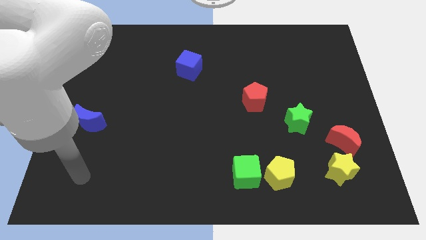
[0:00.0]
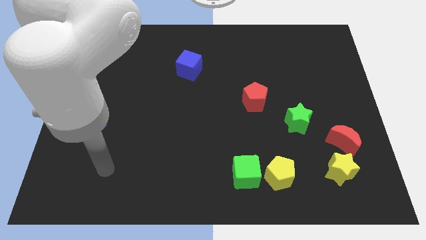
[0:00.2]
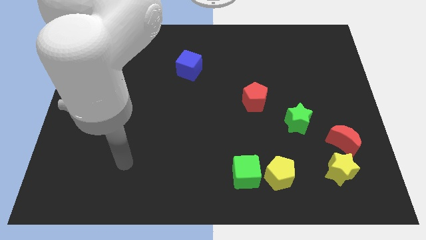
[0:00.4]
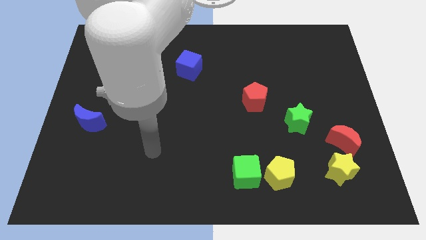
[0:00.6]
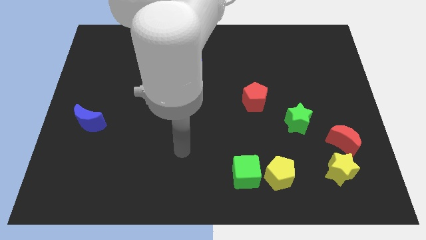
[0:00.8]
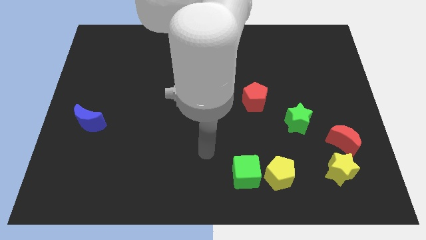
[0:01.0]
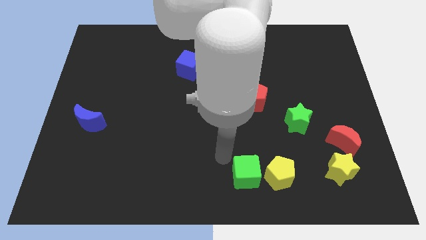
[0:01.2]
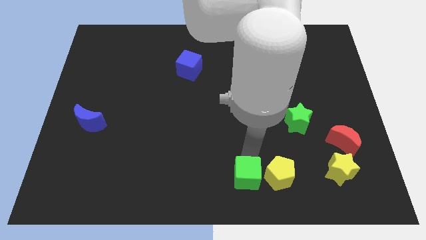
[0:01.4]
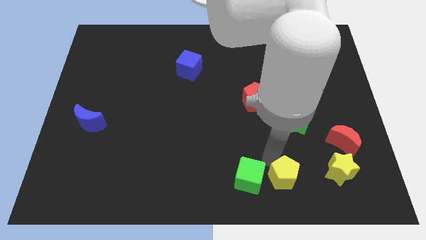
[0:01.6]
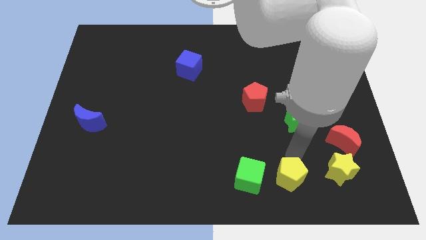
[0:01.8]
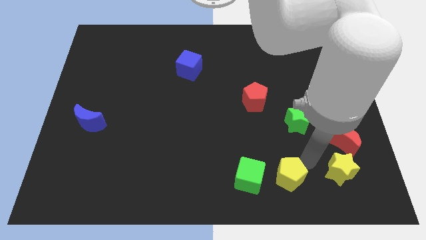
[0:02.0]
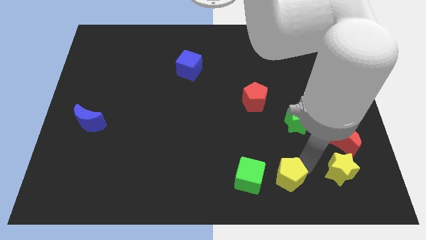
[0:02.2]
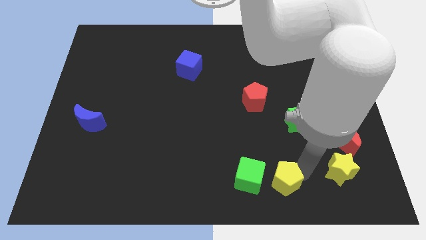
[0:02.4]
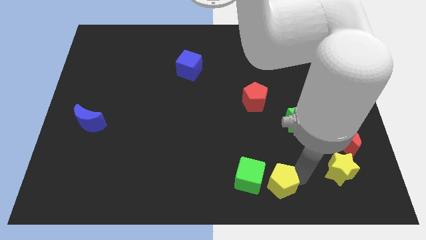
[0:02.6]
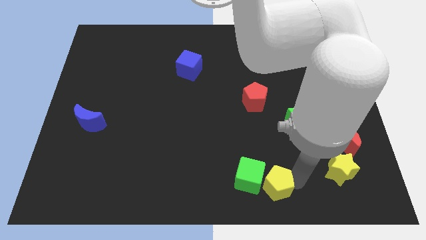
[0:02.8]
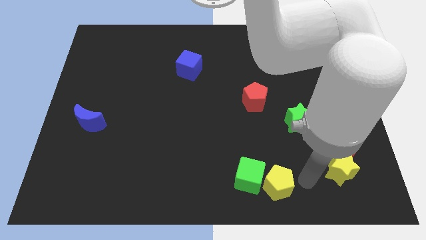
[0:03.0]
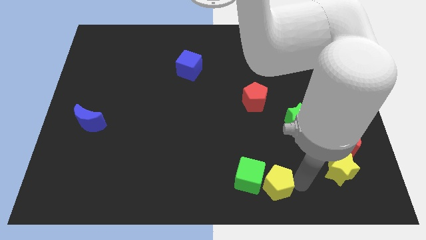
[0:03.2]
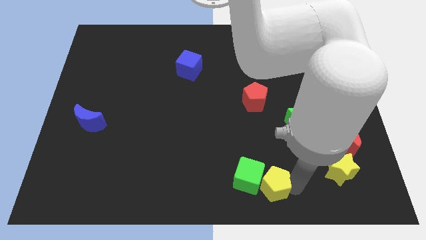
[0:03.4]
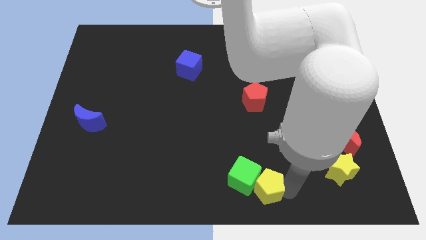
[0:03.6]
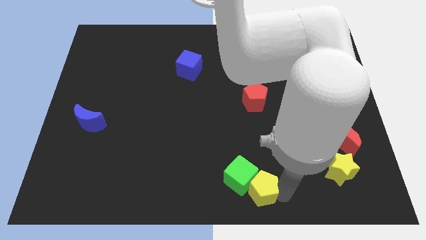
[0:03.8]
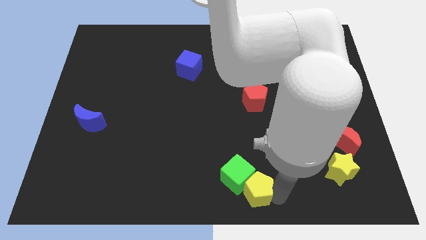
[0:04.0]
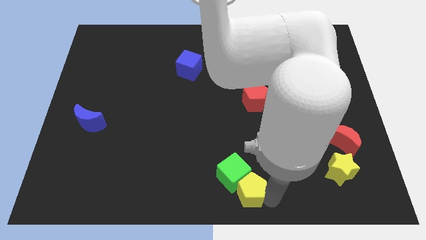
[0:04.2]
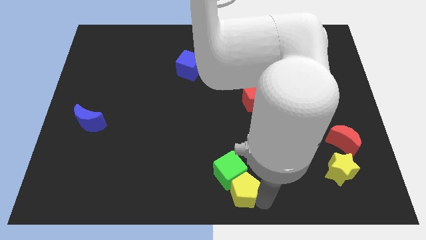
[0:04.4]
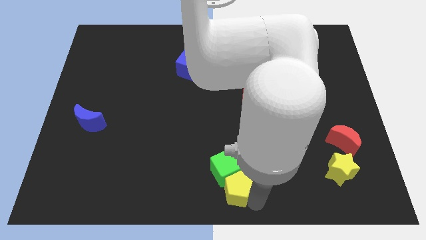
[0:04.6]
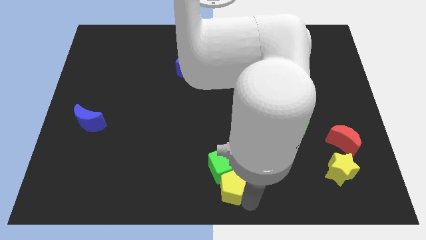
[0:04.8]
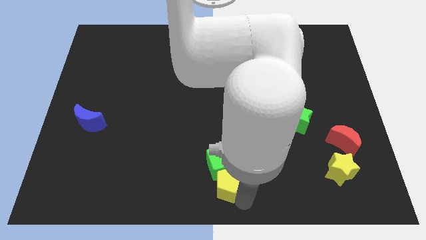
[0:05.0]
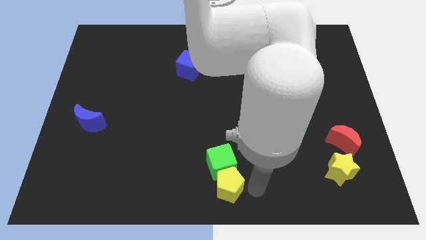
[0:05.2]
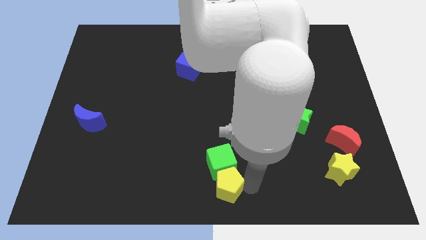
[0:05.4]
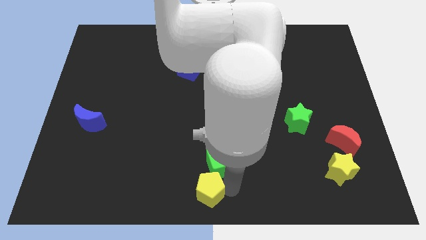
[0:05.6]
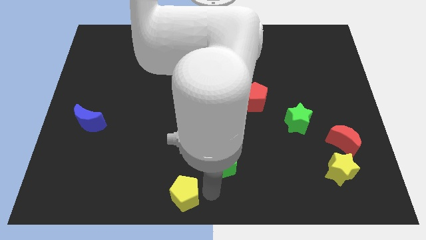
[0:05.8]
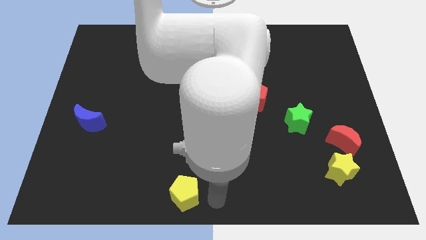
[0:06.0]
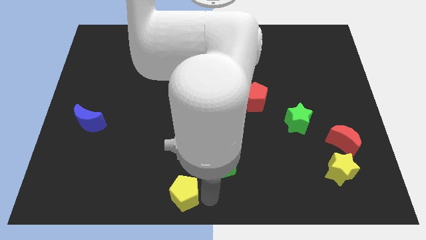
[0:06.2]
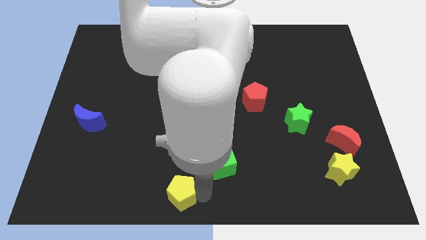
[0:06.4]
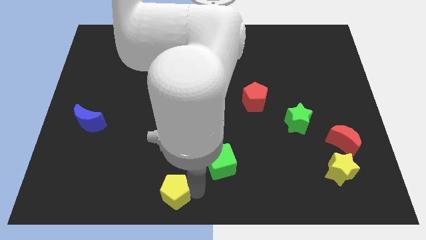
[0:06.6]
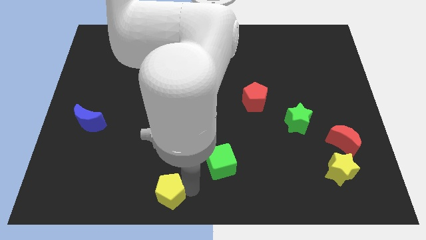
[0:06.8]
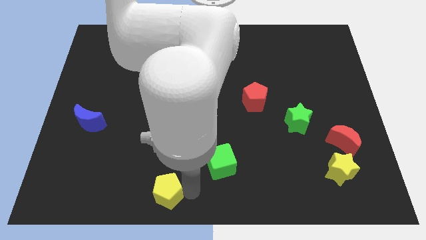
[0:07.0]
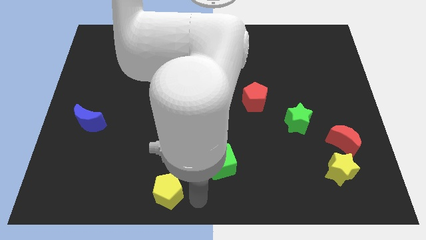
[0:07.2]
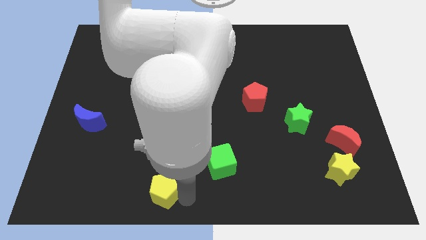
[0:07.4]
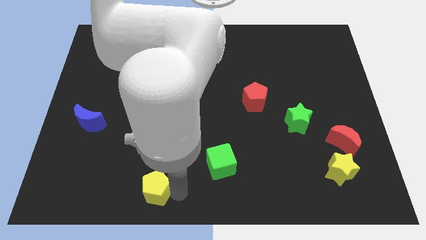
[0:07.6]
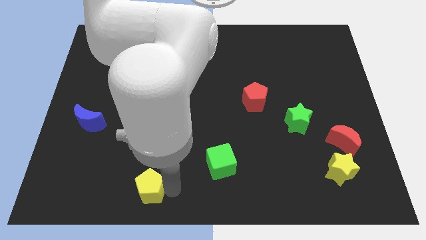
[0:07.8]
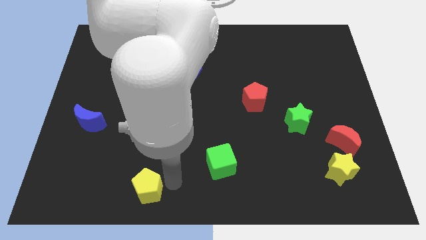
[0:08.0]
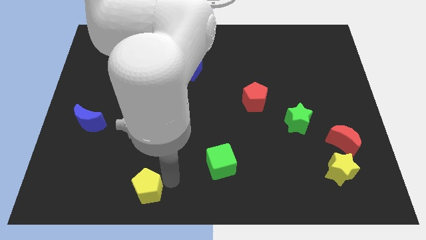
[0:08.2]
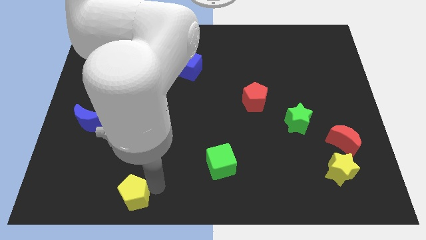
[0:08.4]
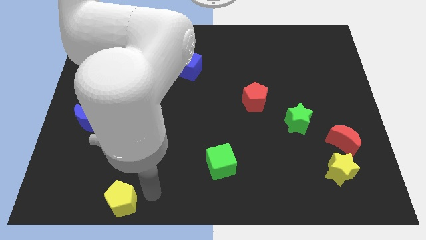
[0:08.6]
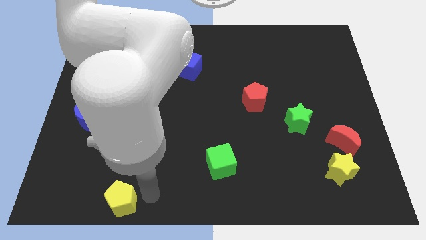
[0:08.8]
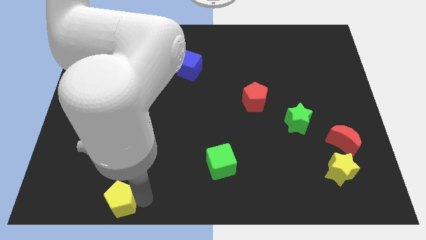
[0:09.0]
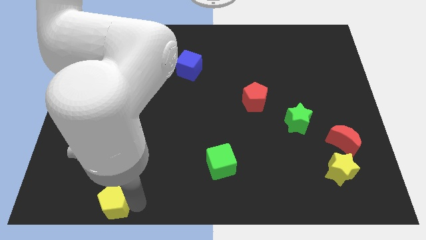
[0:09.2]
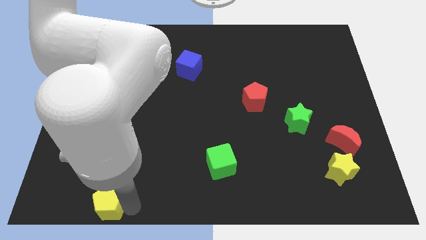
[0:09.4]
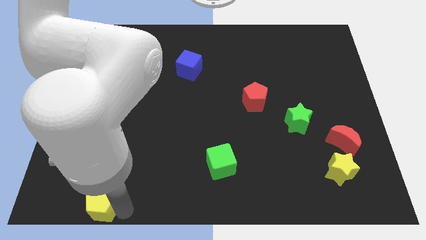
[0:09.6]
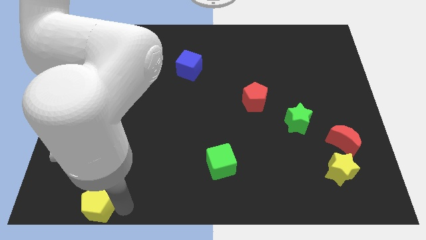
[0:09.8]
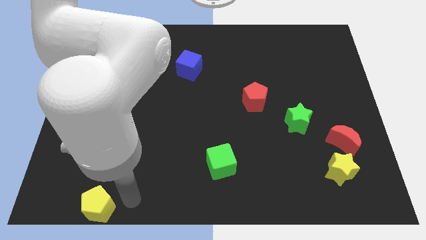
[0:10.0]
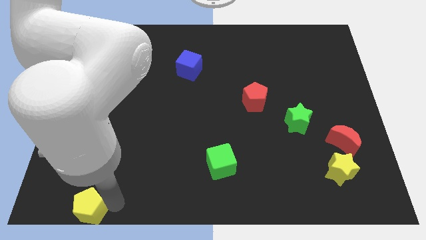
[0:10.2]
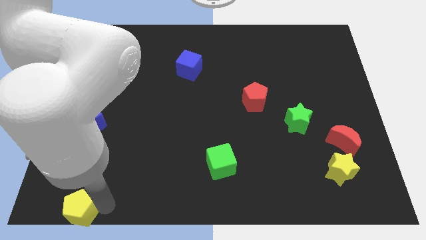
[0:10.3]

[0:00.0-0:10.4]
put the yellow pentagon to the bottom left of the board
